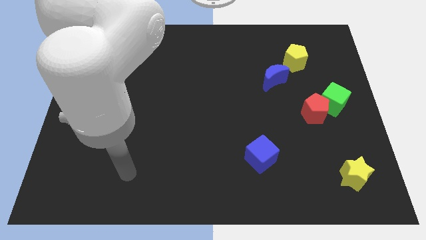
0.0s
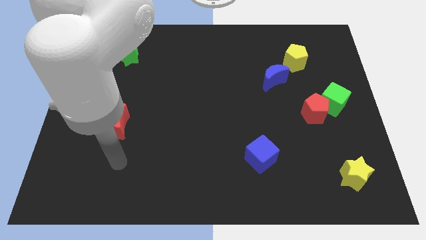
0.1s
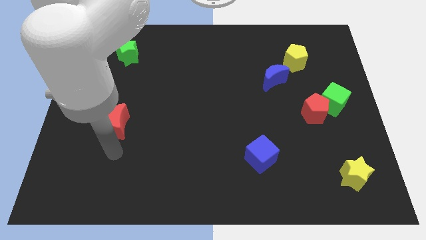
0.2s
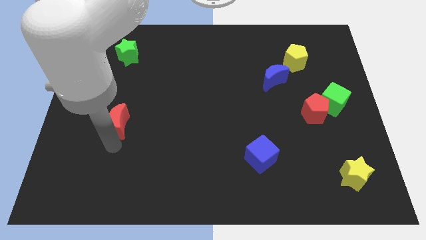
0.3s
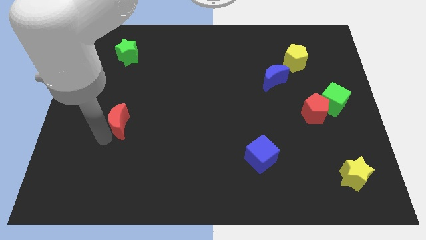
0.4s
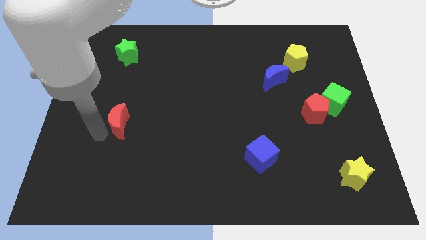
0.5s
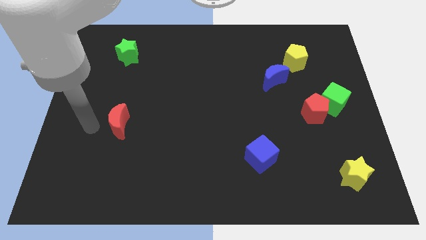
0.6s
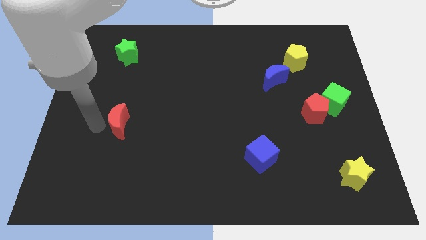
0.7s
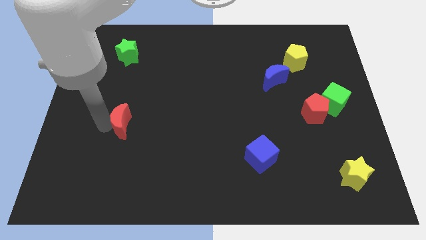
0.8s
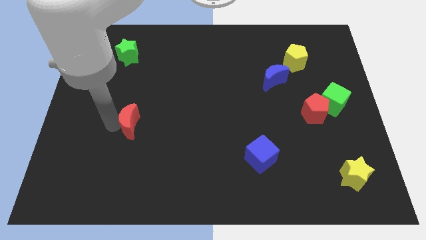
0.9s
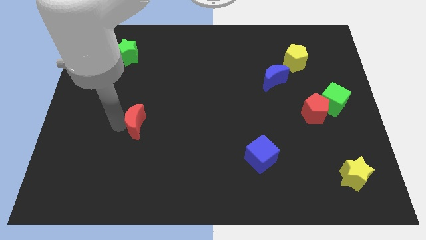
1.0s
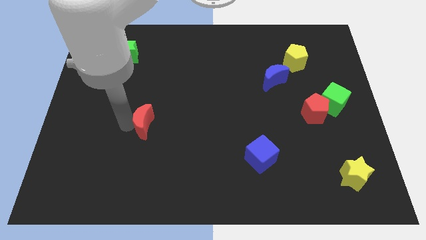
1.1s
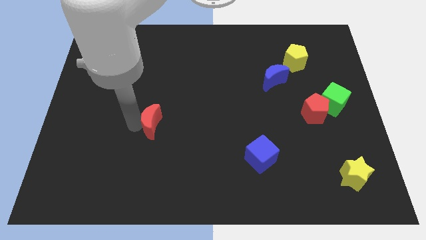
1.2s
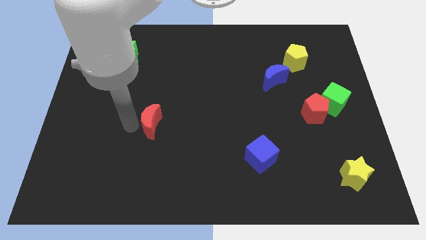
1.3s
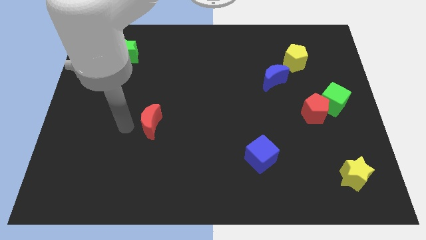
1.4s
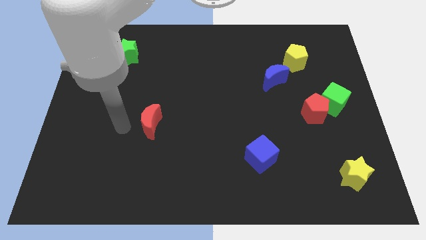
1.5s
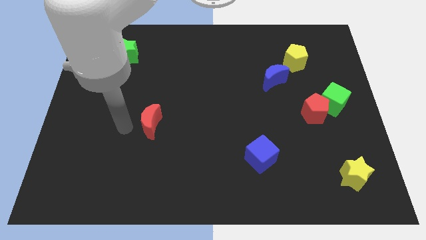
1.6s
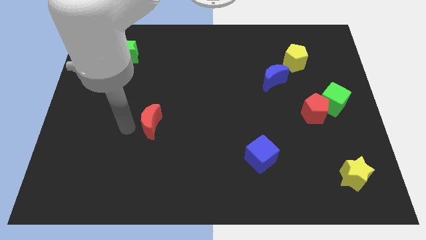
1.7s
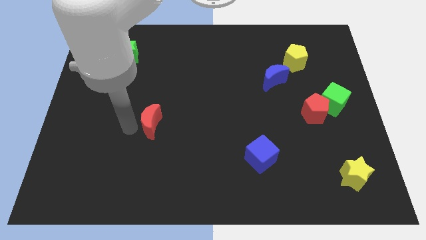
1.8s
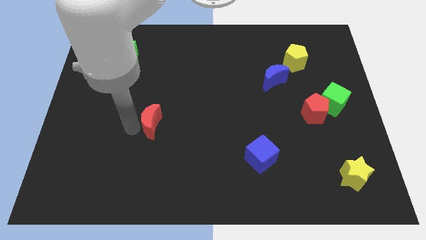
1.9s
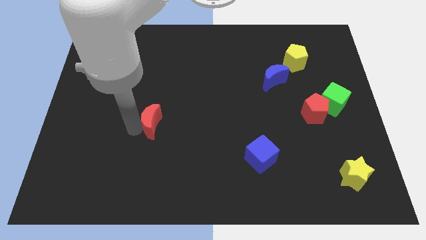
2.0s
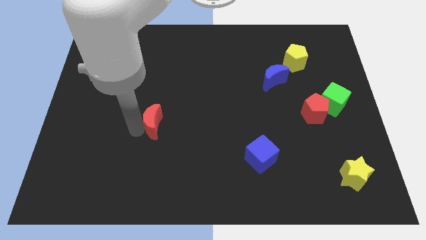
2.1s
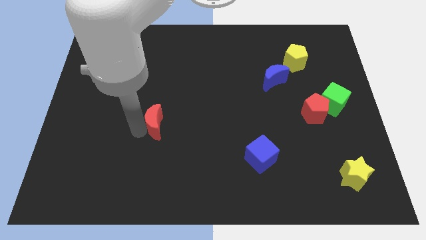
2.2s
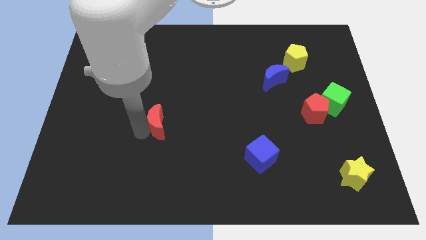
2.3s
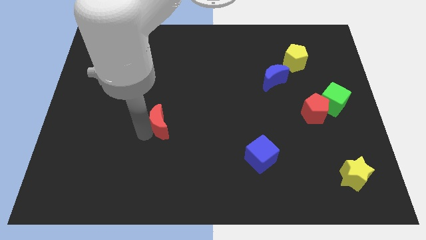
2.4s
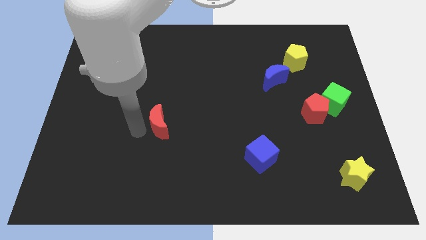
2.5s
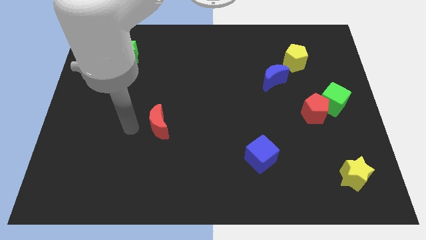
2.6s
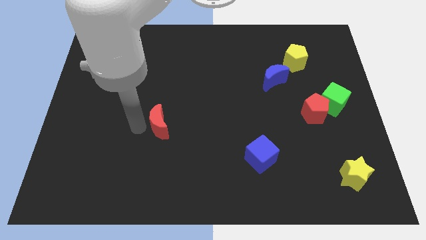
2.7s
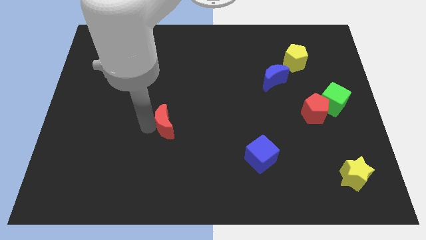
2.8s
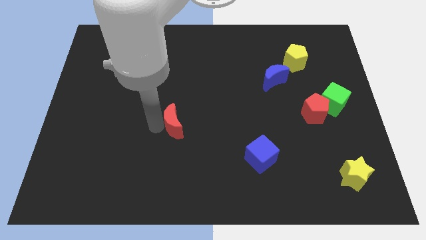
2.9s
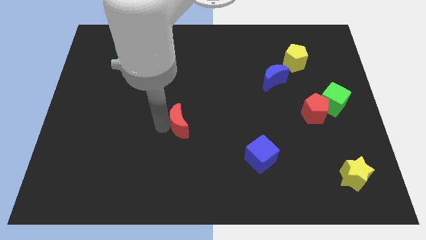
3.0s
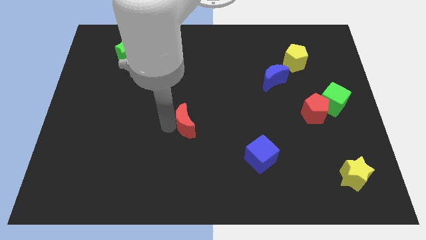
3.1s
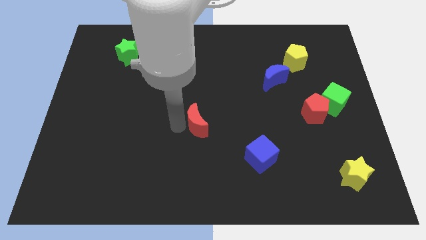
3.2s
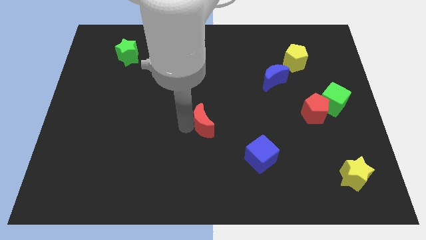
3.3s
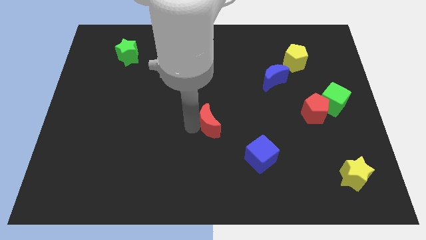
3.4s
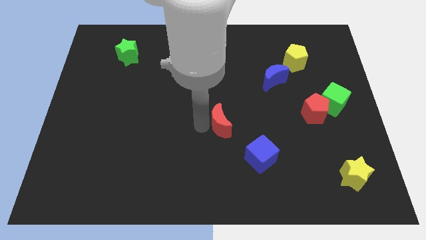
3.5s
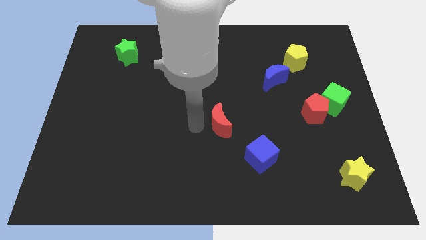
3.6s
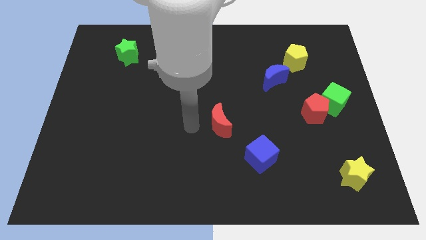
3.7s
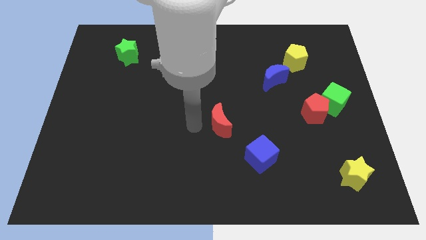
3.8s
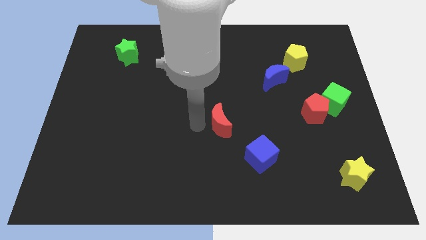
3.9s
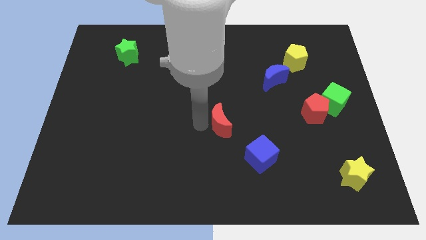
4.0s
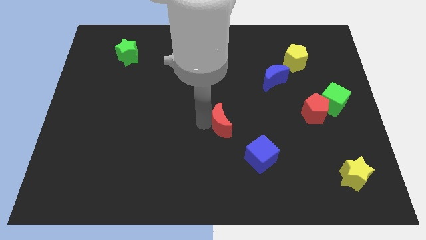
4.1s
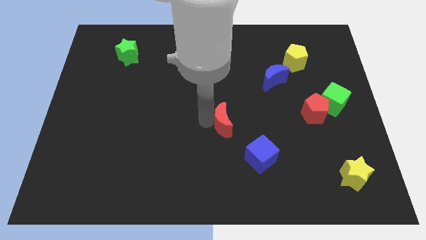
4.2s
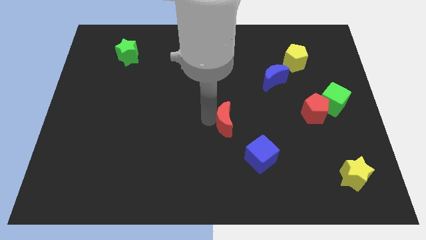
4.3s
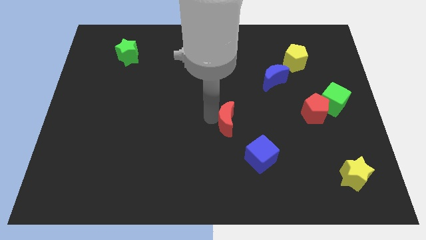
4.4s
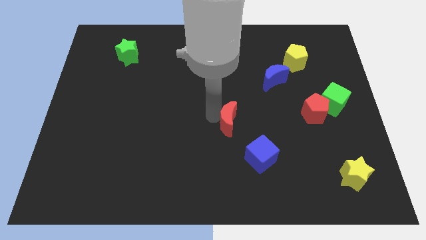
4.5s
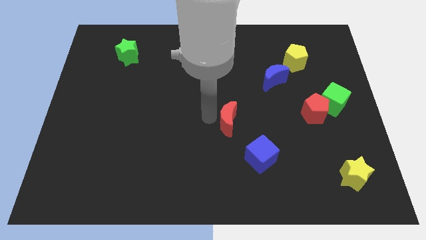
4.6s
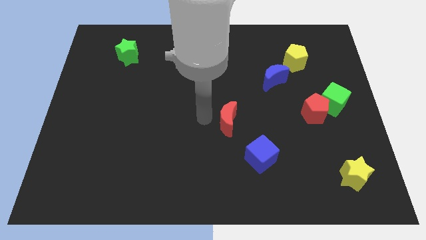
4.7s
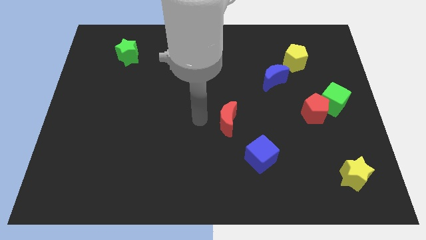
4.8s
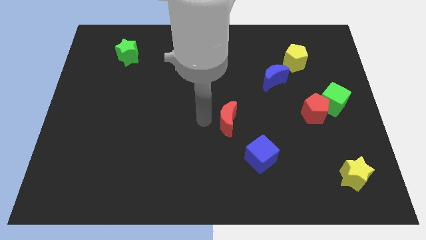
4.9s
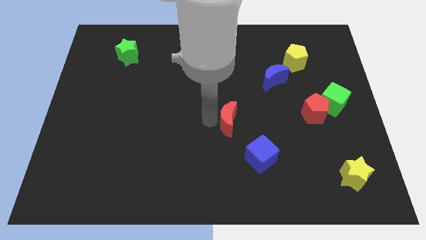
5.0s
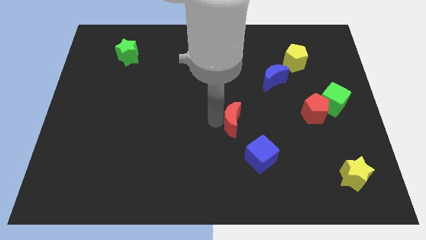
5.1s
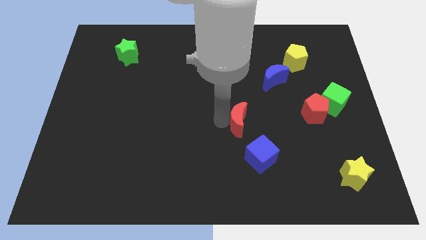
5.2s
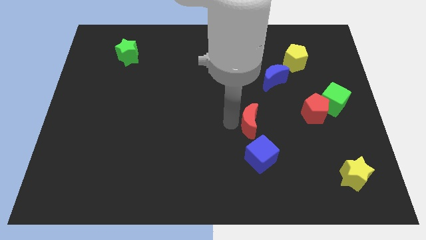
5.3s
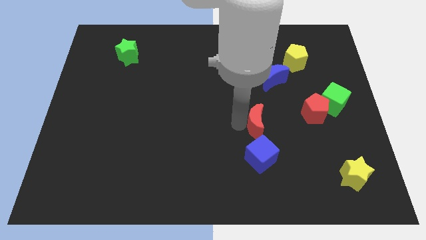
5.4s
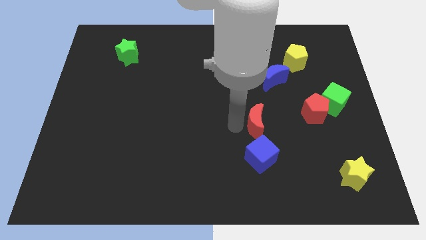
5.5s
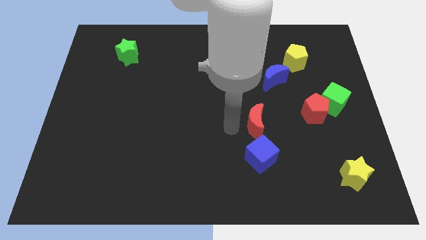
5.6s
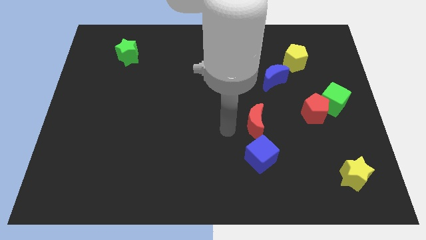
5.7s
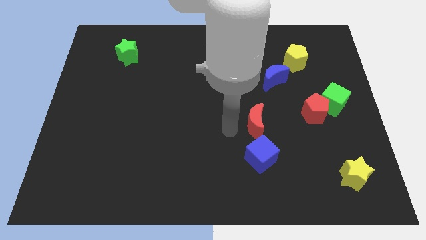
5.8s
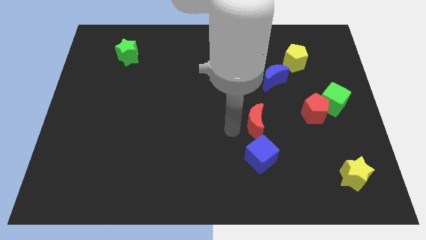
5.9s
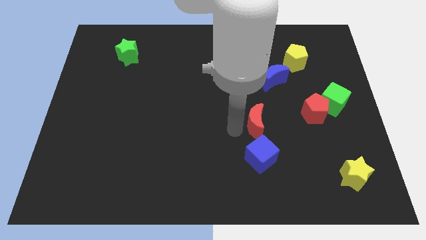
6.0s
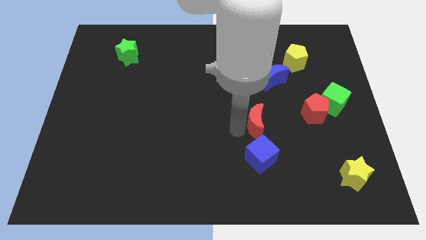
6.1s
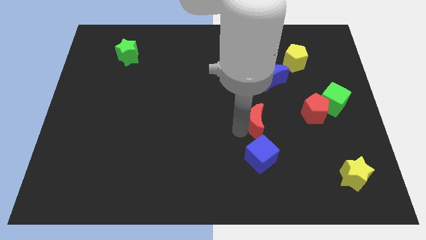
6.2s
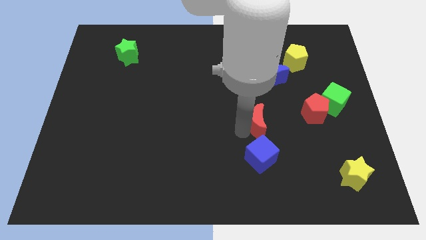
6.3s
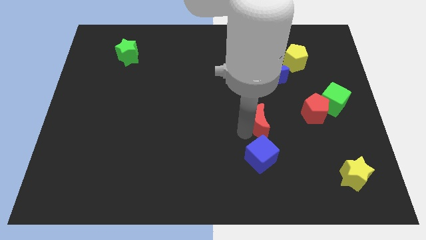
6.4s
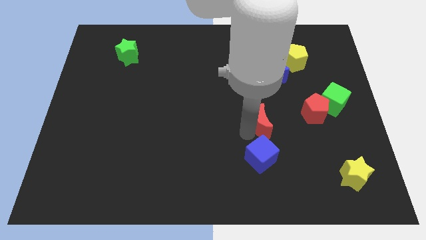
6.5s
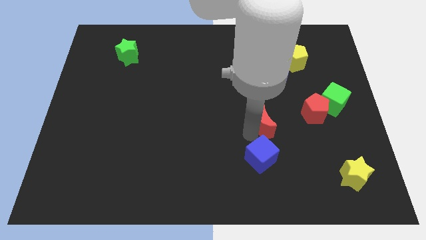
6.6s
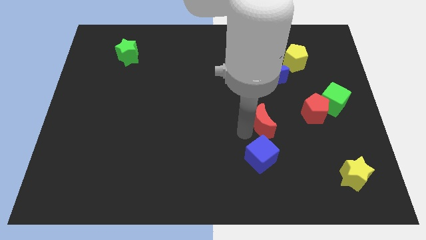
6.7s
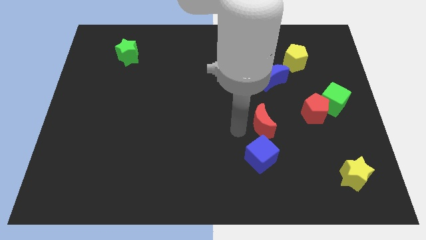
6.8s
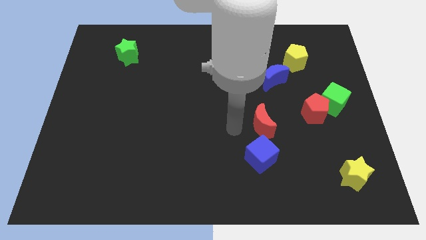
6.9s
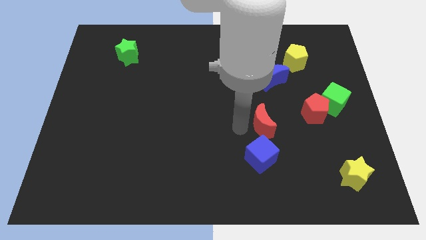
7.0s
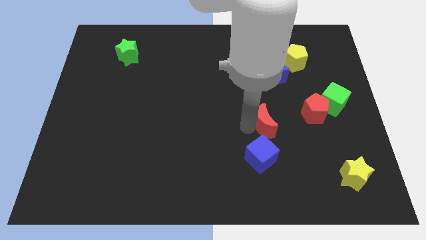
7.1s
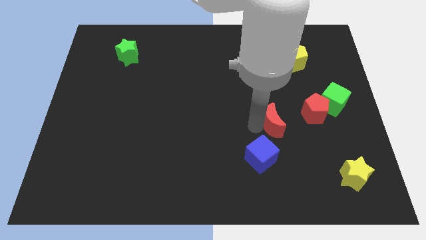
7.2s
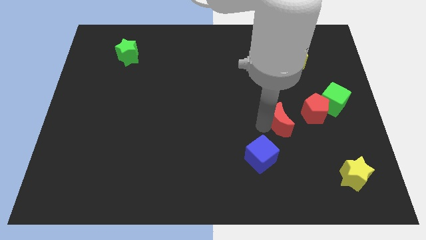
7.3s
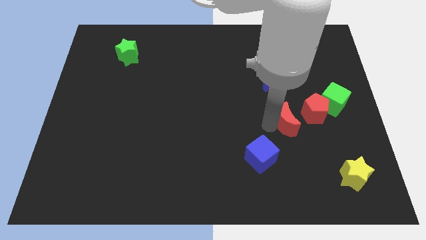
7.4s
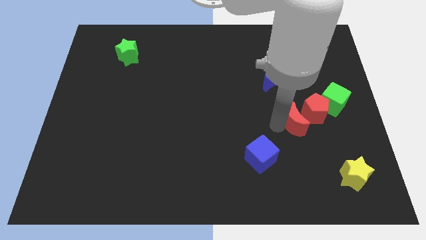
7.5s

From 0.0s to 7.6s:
move the red moon towards the red pentagon
